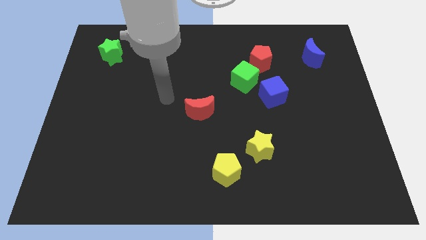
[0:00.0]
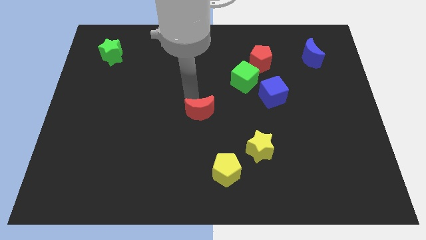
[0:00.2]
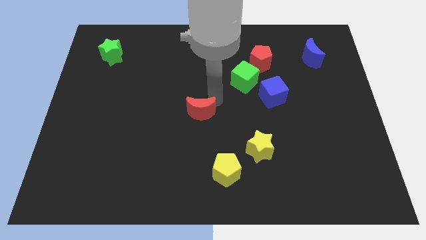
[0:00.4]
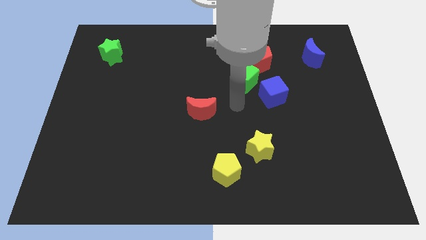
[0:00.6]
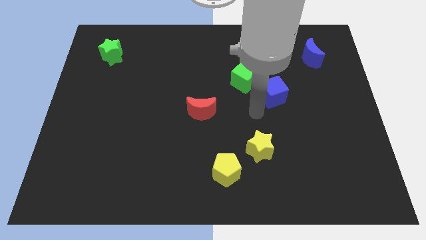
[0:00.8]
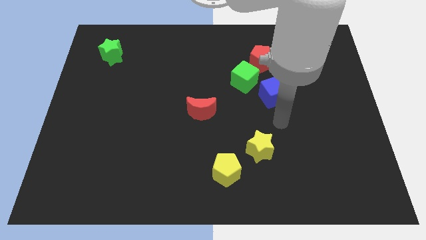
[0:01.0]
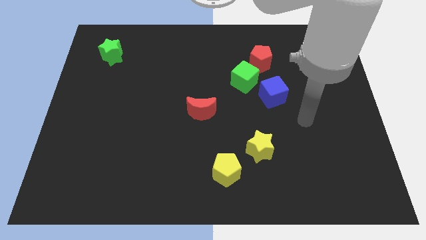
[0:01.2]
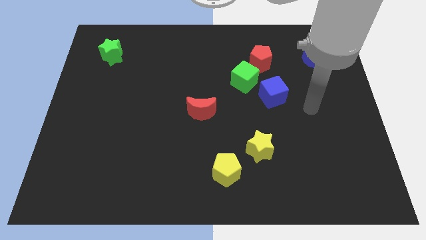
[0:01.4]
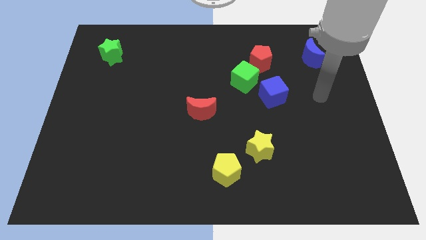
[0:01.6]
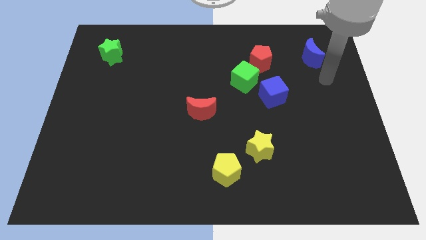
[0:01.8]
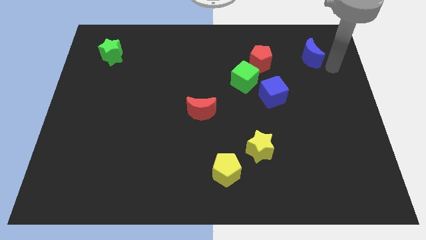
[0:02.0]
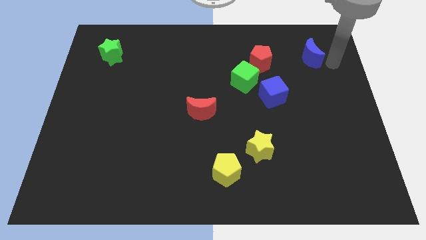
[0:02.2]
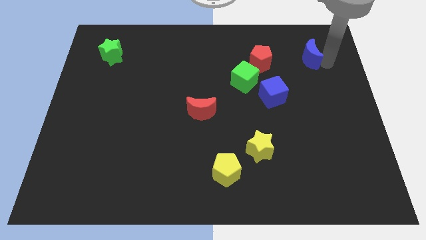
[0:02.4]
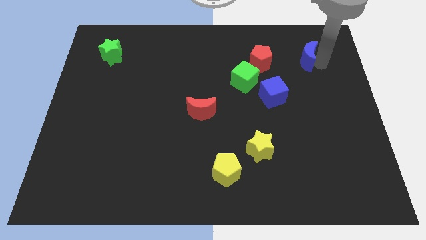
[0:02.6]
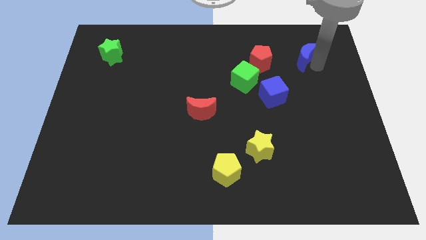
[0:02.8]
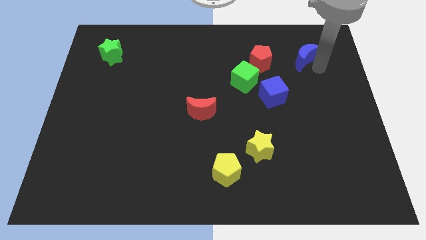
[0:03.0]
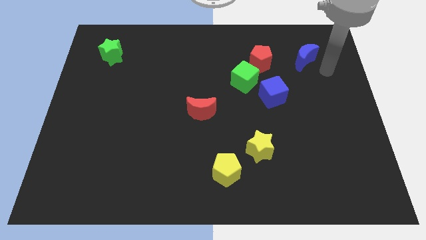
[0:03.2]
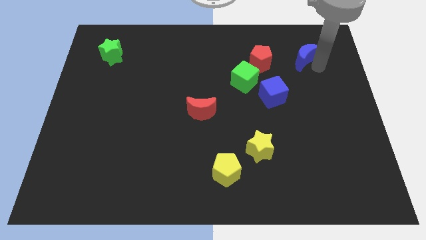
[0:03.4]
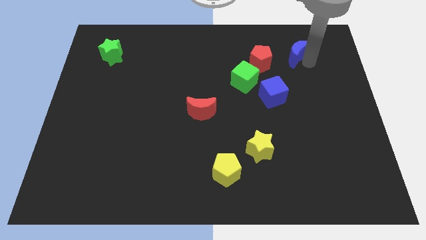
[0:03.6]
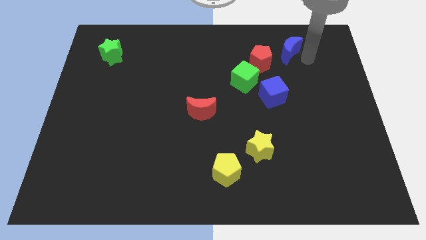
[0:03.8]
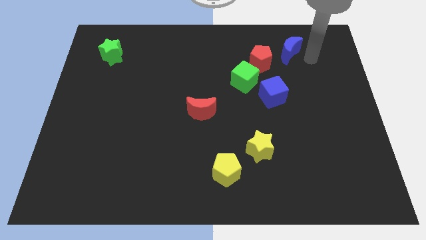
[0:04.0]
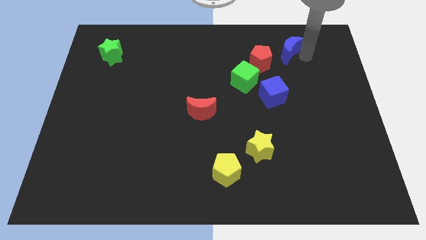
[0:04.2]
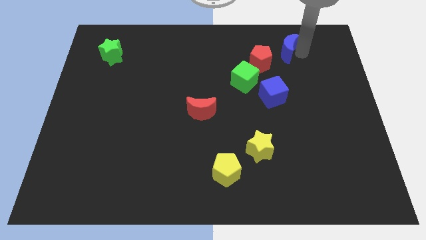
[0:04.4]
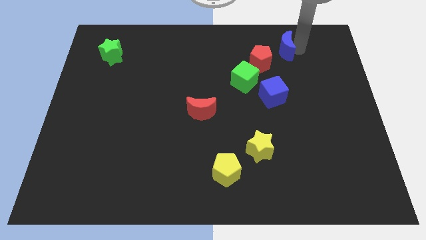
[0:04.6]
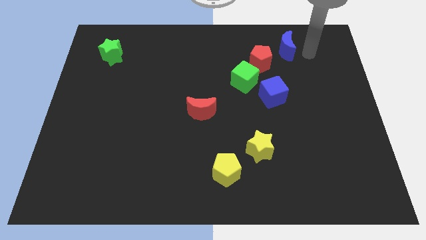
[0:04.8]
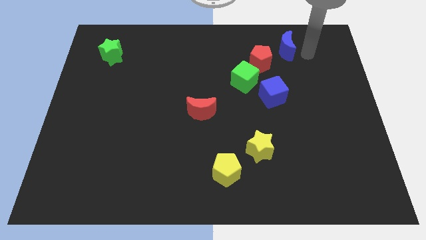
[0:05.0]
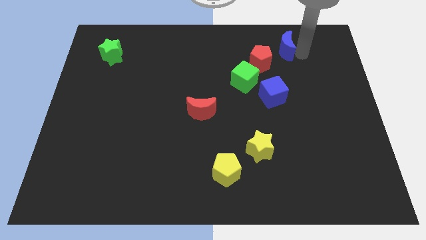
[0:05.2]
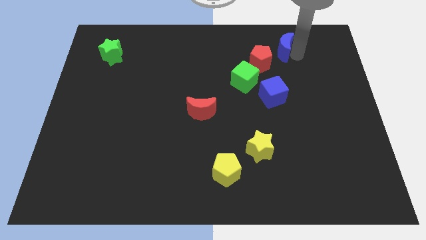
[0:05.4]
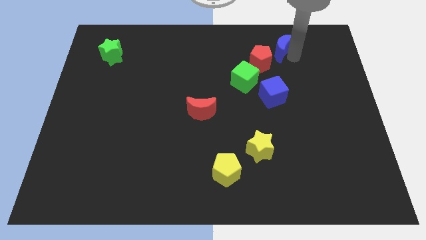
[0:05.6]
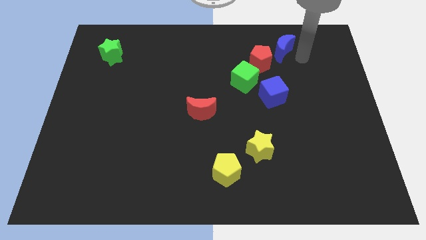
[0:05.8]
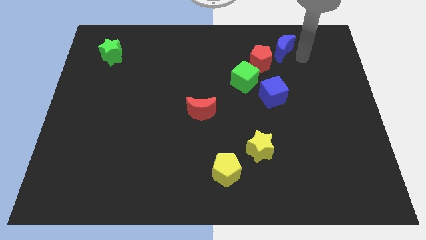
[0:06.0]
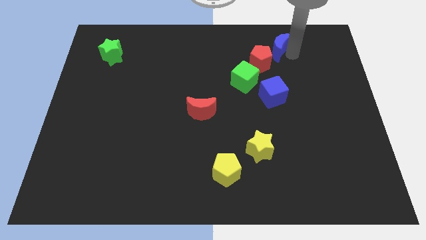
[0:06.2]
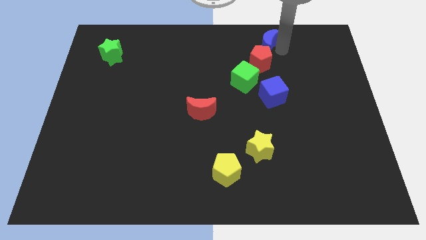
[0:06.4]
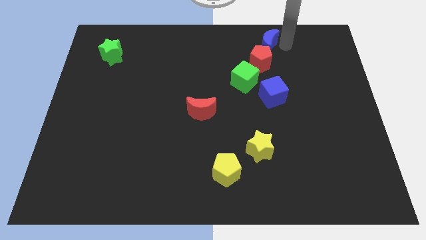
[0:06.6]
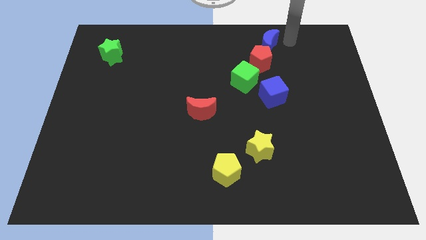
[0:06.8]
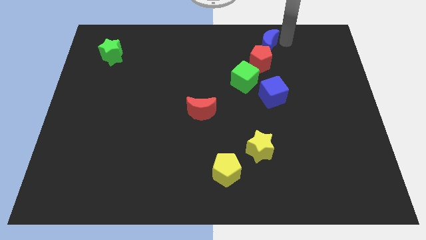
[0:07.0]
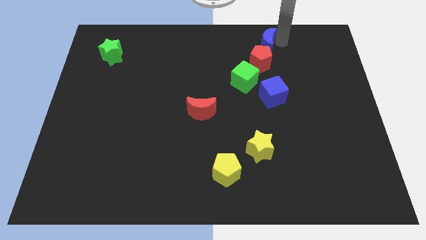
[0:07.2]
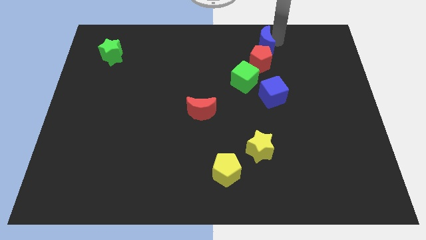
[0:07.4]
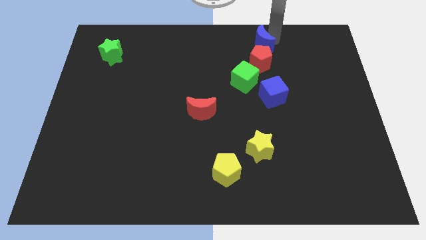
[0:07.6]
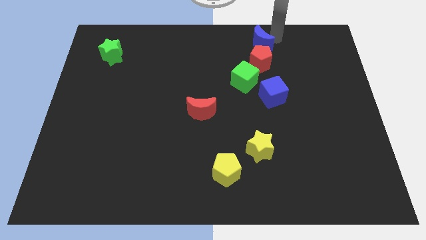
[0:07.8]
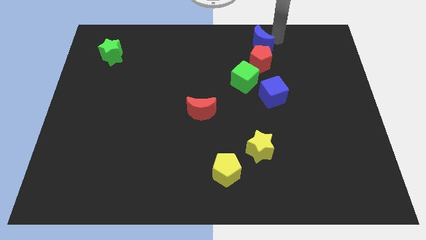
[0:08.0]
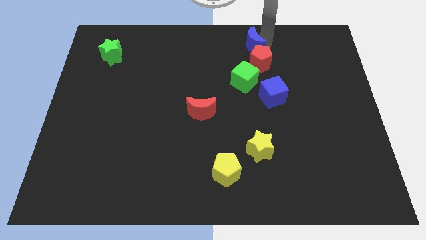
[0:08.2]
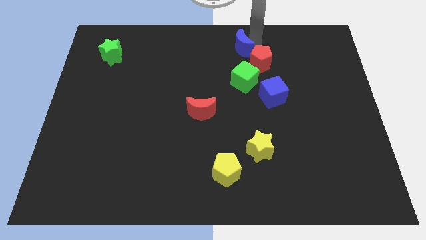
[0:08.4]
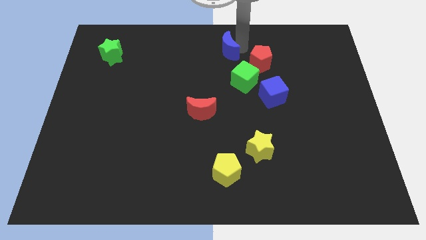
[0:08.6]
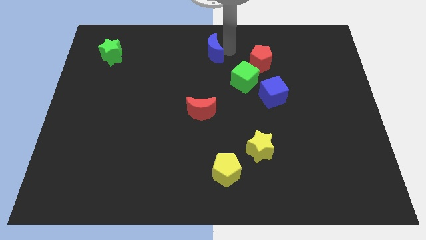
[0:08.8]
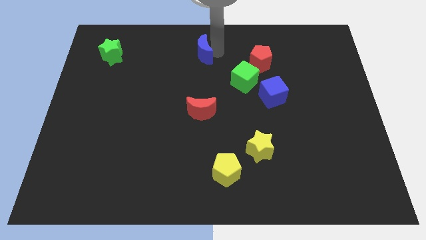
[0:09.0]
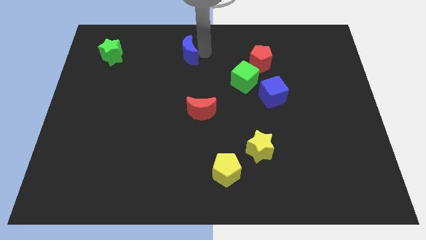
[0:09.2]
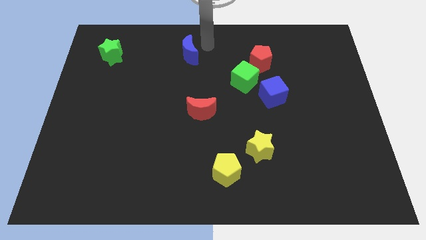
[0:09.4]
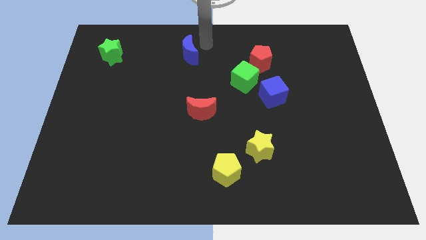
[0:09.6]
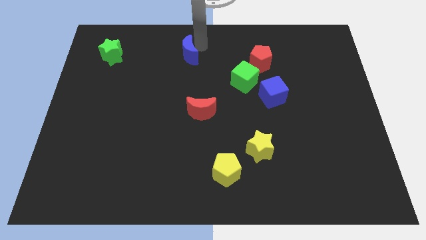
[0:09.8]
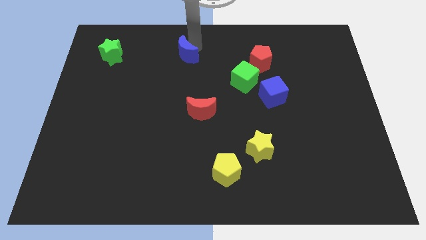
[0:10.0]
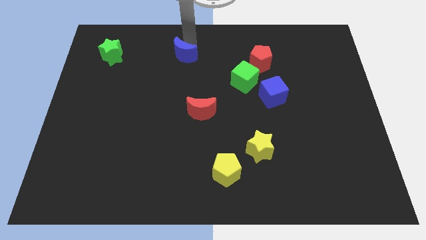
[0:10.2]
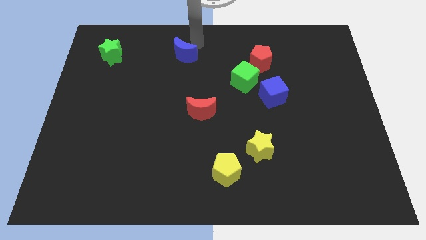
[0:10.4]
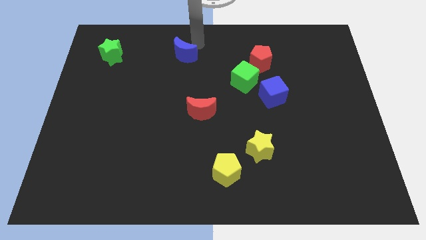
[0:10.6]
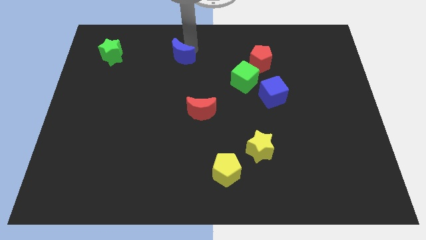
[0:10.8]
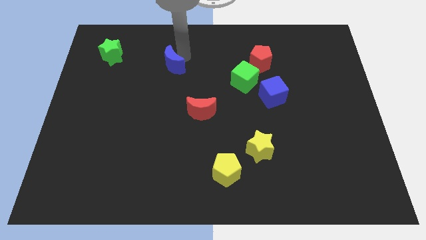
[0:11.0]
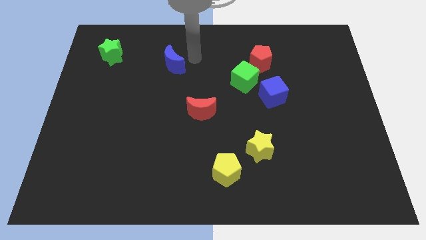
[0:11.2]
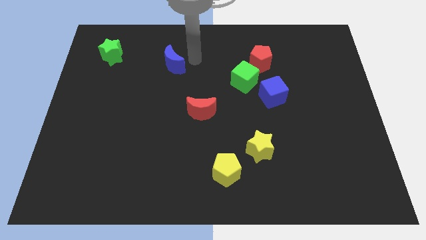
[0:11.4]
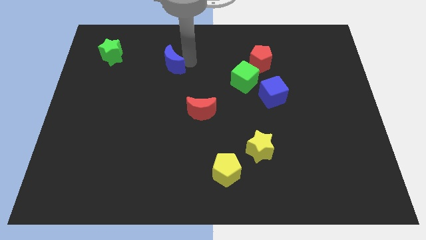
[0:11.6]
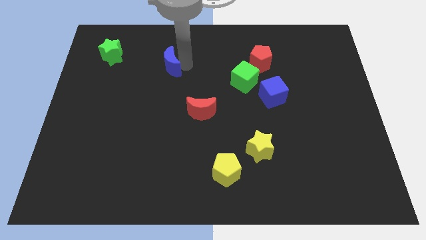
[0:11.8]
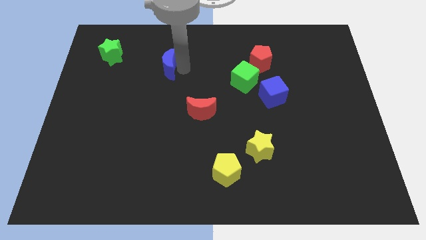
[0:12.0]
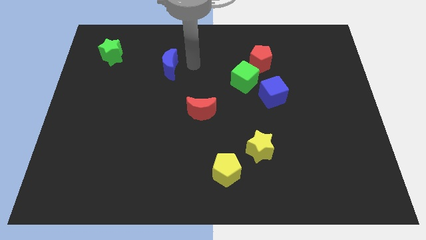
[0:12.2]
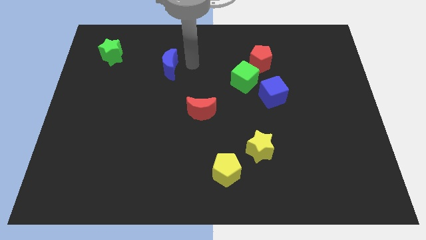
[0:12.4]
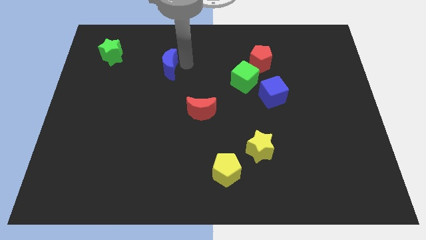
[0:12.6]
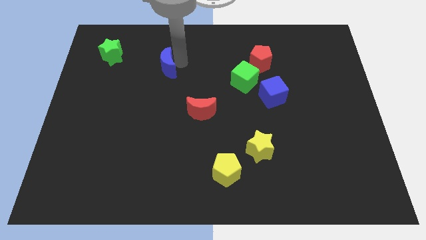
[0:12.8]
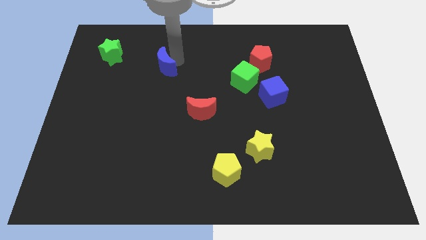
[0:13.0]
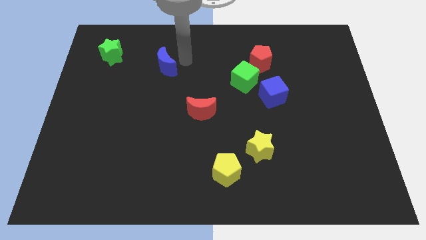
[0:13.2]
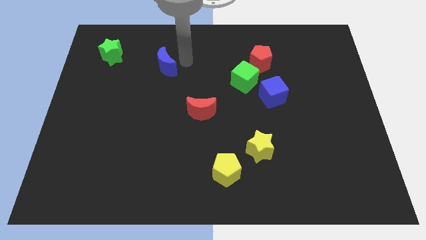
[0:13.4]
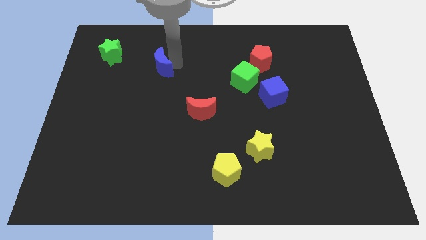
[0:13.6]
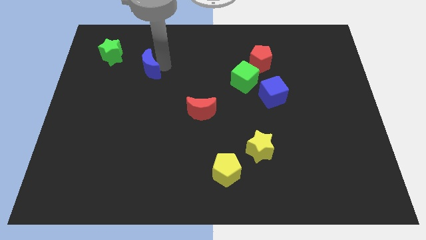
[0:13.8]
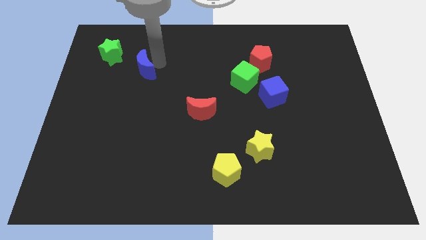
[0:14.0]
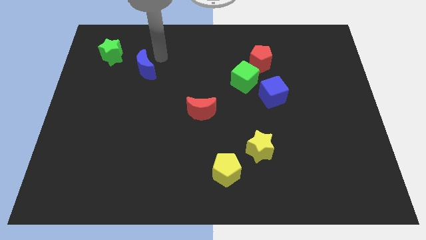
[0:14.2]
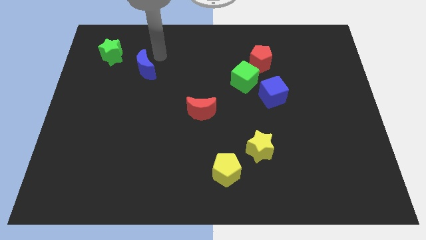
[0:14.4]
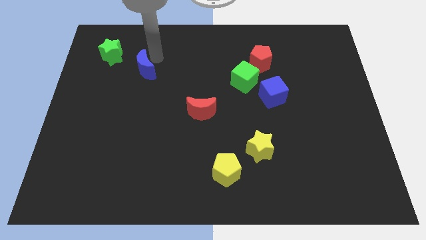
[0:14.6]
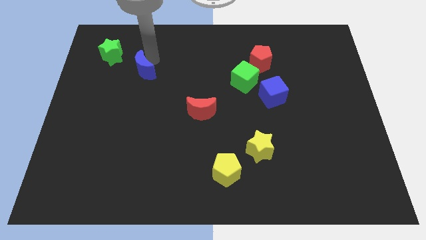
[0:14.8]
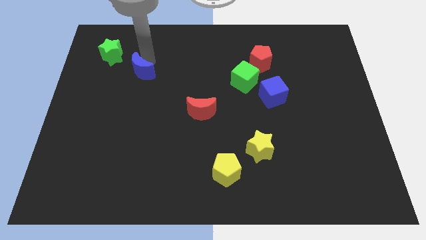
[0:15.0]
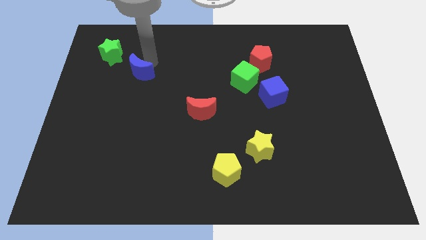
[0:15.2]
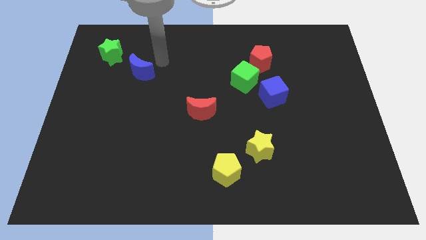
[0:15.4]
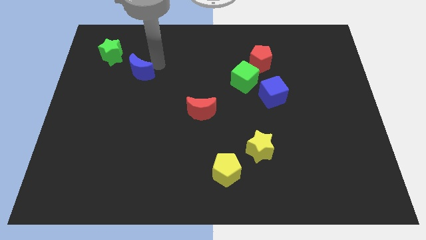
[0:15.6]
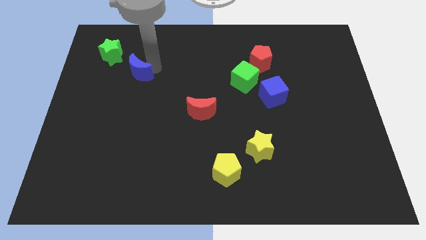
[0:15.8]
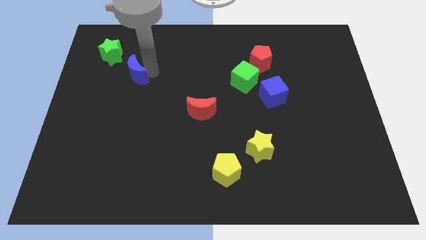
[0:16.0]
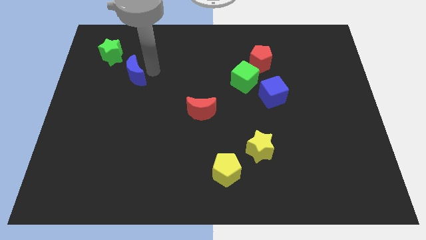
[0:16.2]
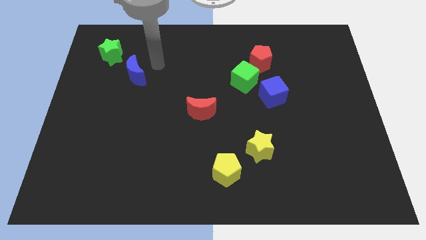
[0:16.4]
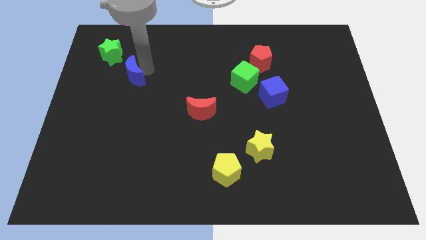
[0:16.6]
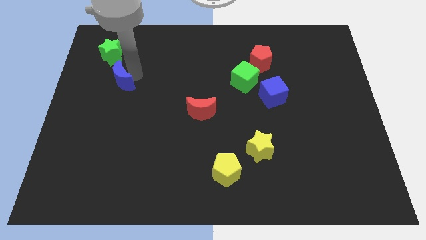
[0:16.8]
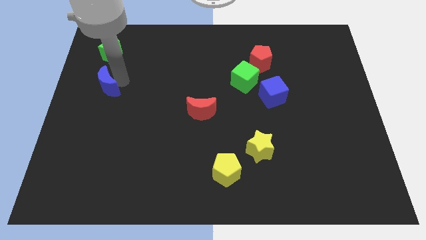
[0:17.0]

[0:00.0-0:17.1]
slide the blue moon to the center left
